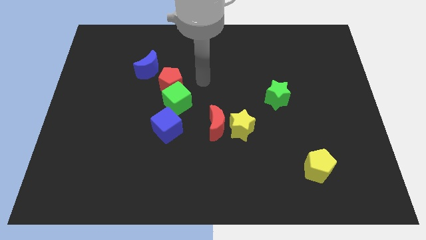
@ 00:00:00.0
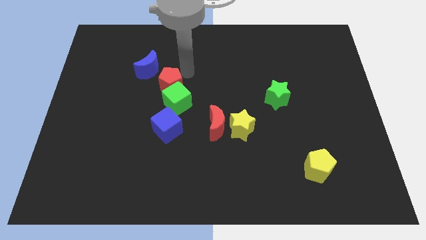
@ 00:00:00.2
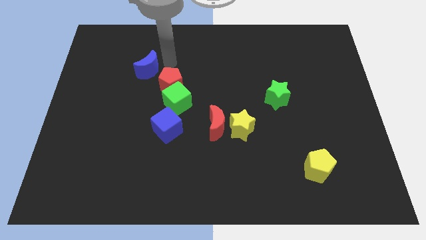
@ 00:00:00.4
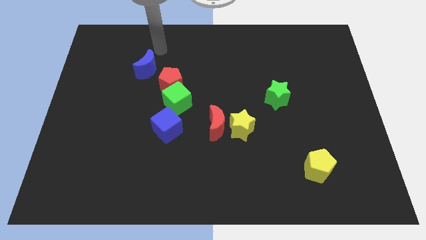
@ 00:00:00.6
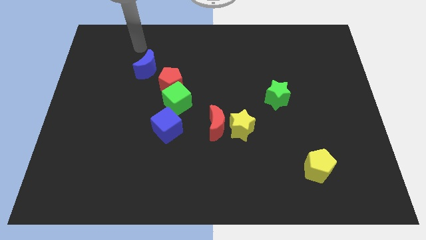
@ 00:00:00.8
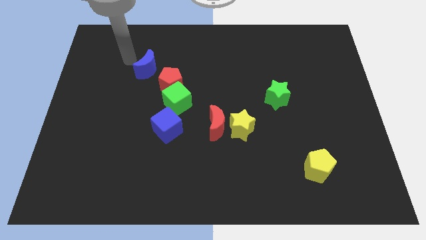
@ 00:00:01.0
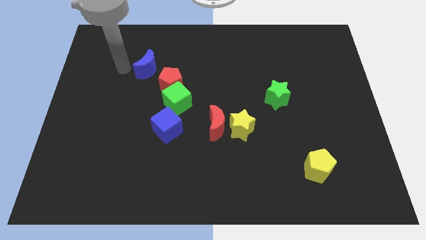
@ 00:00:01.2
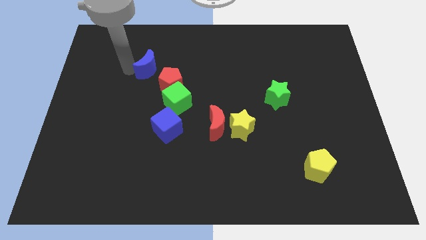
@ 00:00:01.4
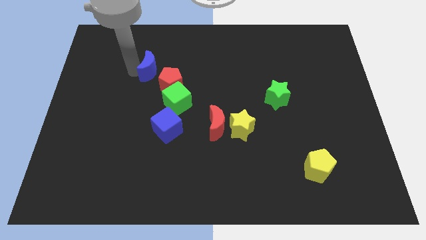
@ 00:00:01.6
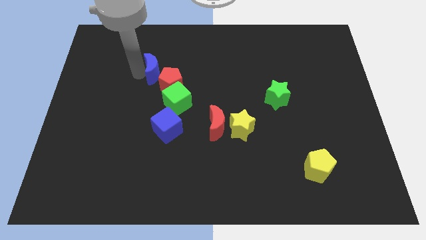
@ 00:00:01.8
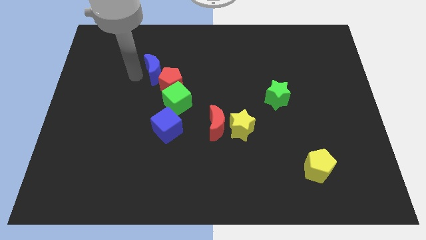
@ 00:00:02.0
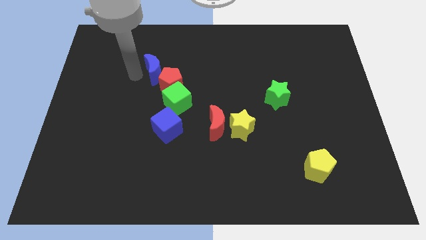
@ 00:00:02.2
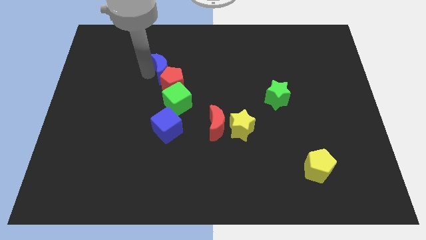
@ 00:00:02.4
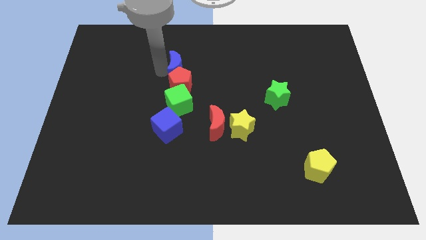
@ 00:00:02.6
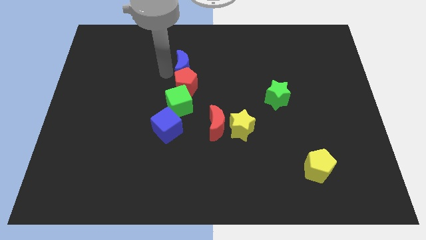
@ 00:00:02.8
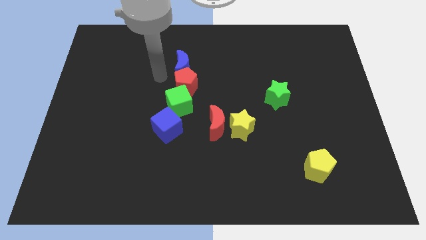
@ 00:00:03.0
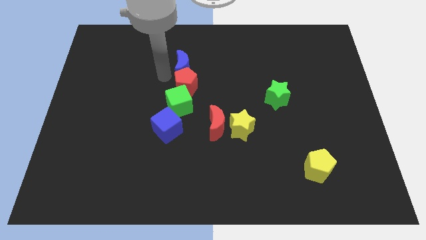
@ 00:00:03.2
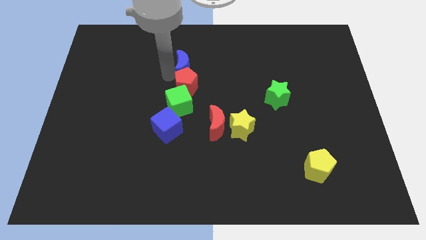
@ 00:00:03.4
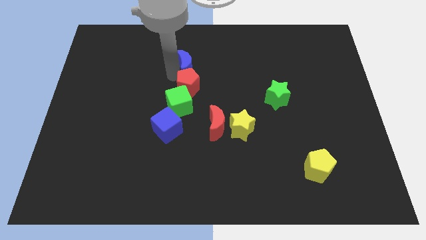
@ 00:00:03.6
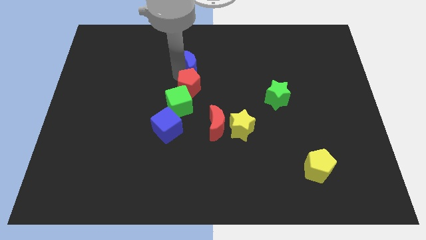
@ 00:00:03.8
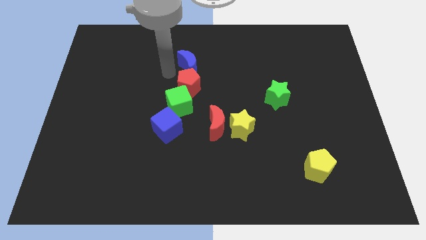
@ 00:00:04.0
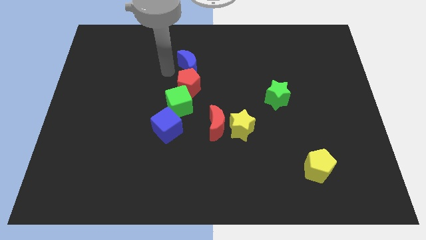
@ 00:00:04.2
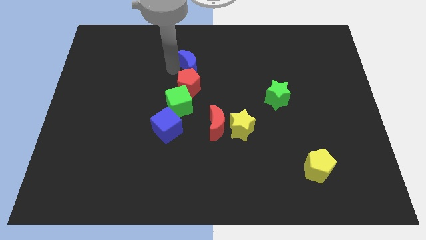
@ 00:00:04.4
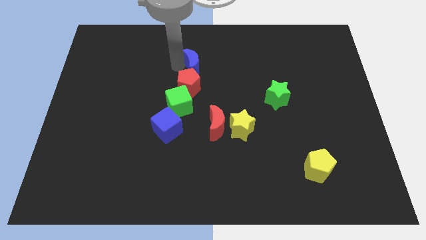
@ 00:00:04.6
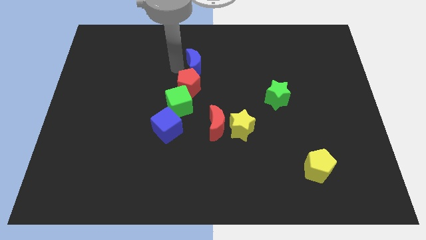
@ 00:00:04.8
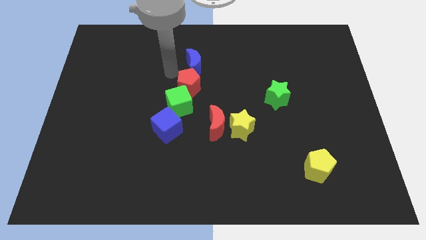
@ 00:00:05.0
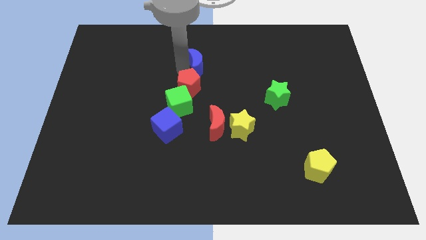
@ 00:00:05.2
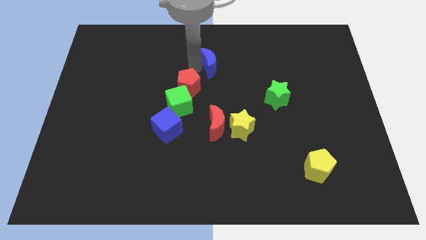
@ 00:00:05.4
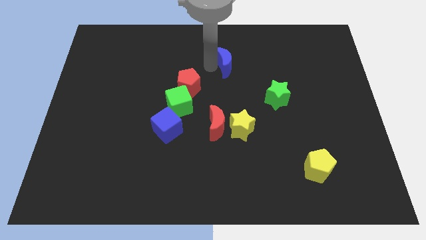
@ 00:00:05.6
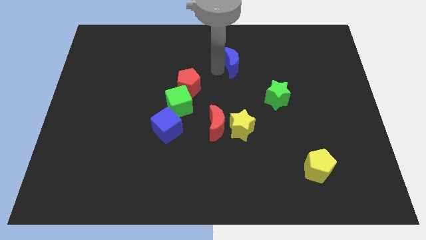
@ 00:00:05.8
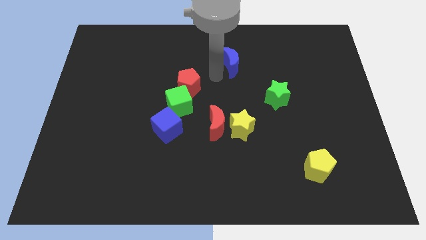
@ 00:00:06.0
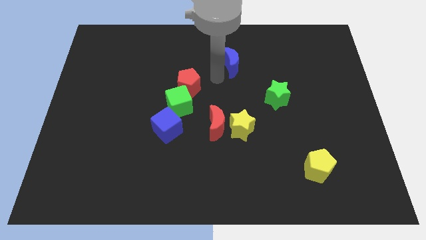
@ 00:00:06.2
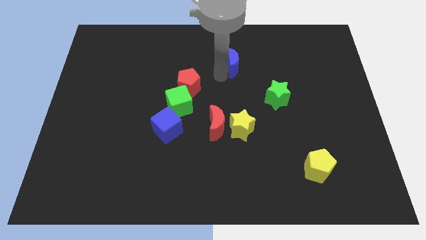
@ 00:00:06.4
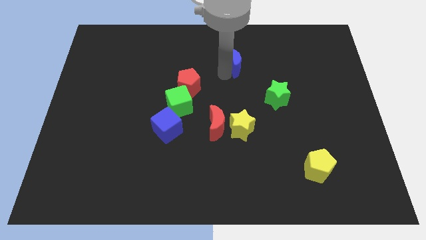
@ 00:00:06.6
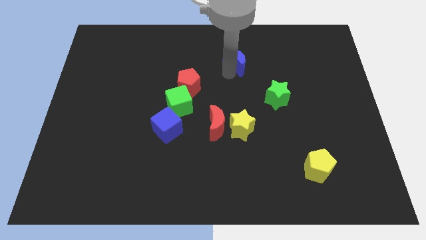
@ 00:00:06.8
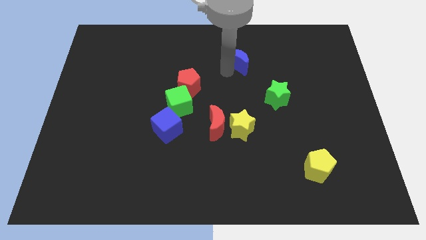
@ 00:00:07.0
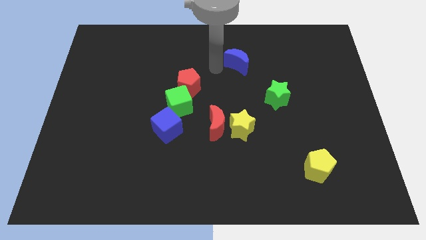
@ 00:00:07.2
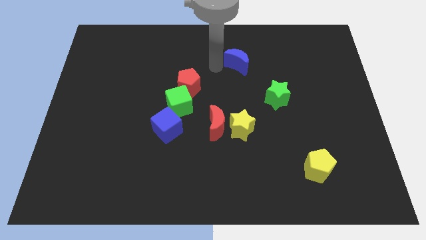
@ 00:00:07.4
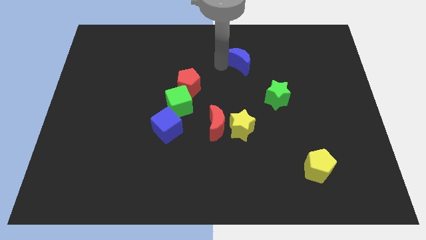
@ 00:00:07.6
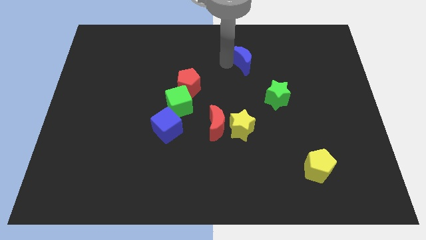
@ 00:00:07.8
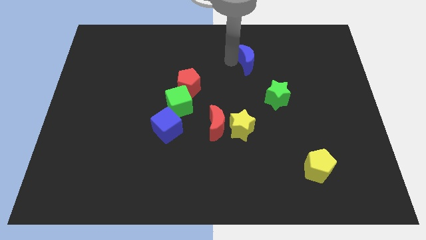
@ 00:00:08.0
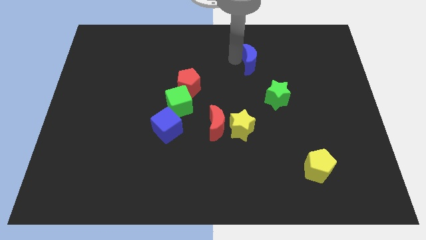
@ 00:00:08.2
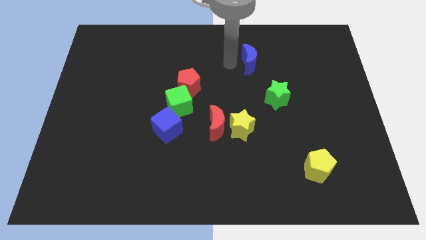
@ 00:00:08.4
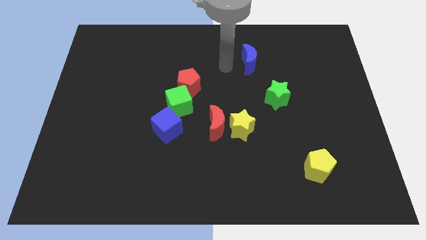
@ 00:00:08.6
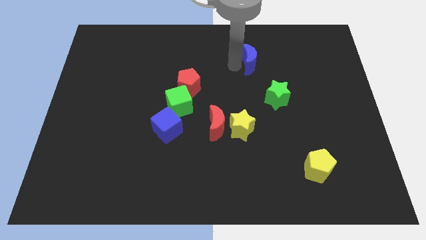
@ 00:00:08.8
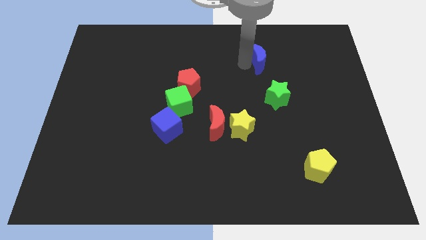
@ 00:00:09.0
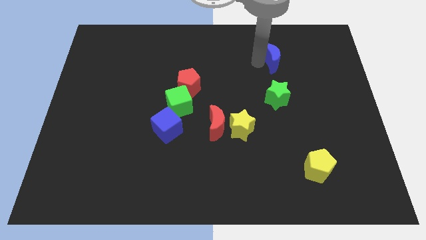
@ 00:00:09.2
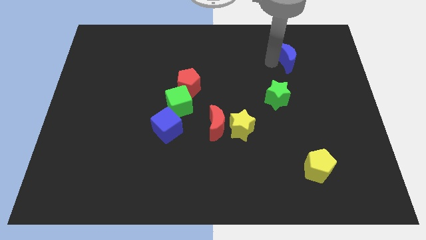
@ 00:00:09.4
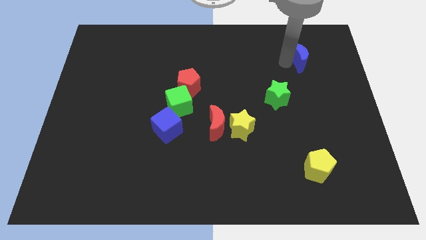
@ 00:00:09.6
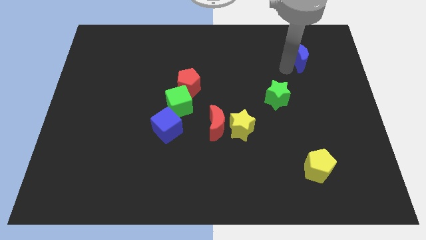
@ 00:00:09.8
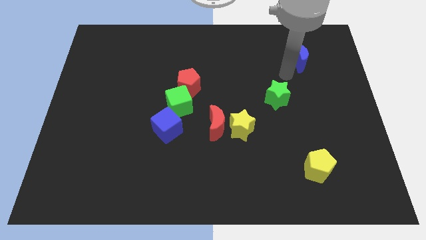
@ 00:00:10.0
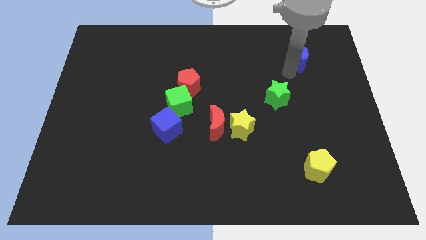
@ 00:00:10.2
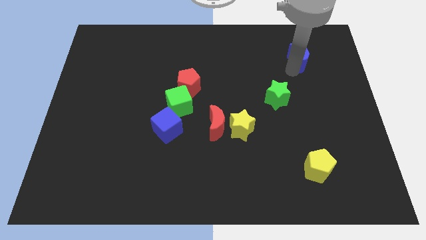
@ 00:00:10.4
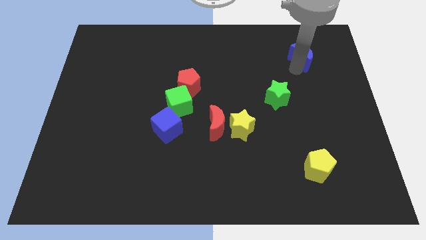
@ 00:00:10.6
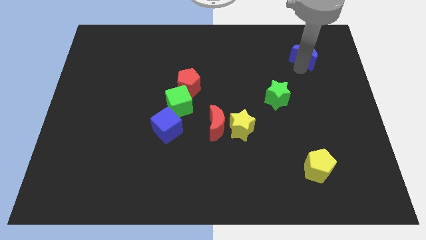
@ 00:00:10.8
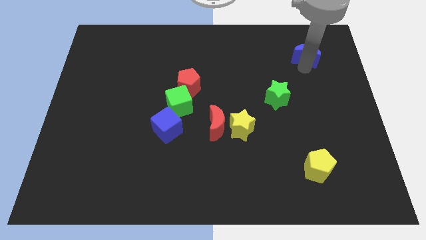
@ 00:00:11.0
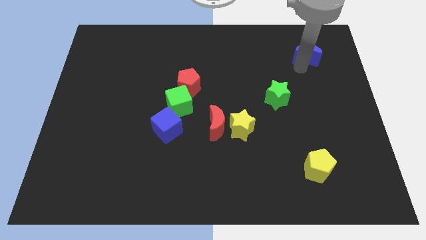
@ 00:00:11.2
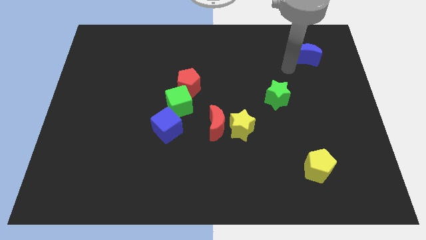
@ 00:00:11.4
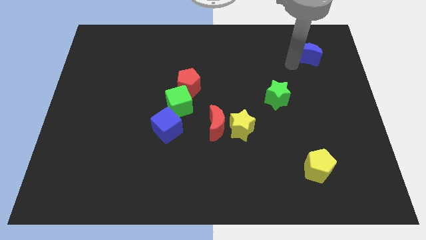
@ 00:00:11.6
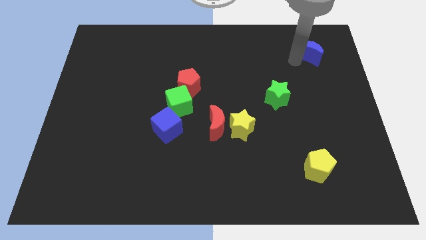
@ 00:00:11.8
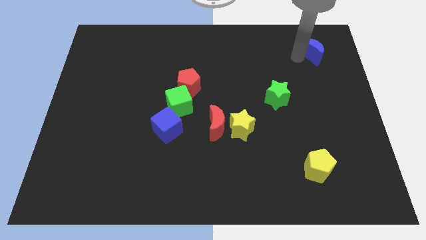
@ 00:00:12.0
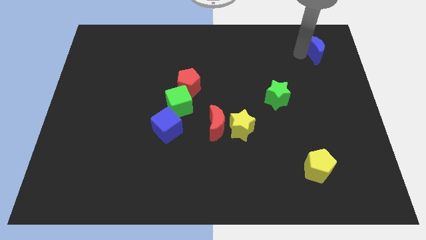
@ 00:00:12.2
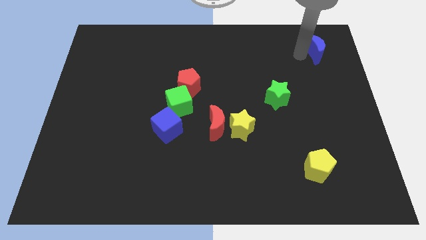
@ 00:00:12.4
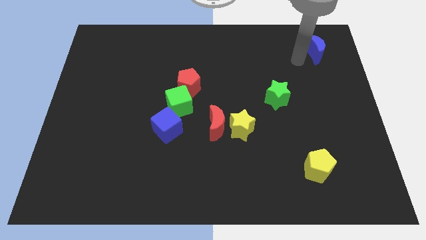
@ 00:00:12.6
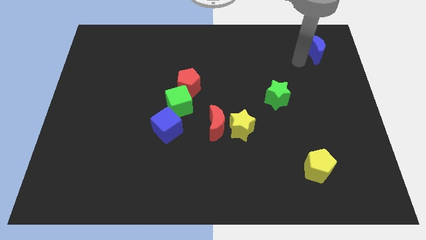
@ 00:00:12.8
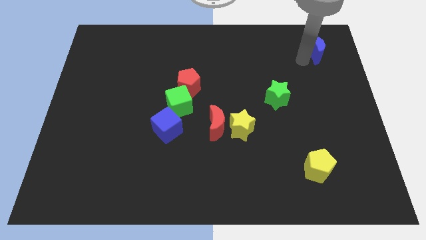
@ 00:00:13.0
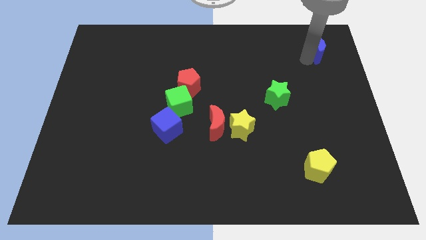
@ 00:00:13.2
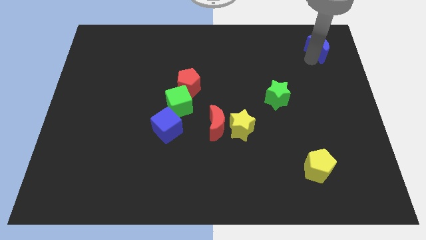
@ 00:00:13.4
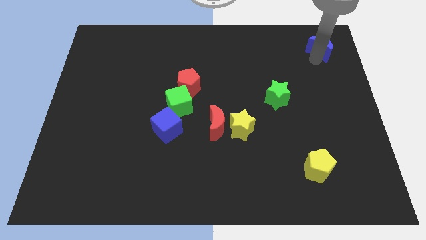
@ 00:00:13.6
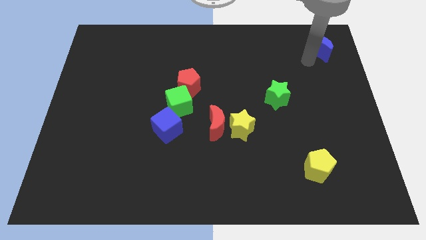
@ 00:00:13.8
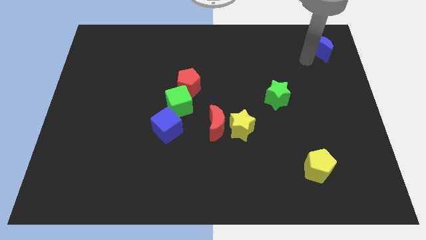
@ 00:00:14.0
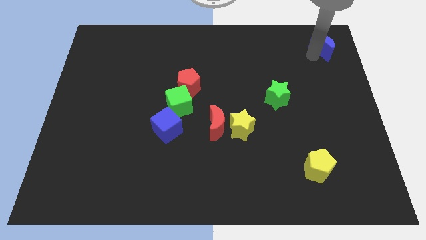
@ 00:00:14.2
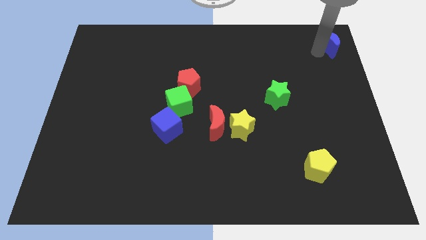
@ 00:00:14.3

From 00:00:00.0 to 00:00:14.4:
move the blue moon to the top right

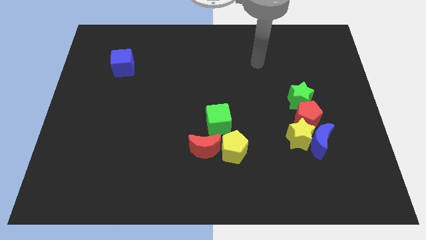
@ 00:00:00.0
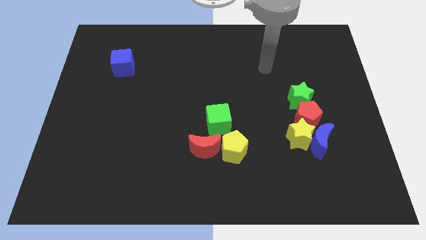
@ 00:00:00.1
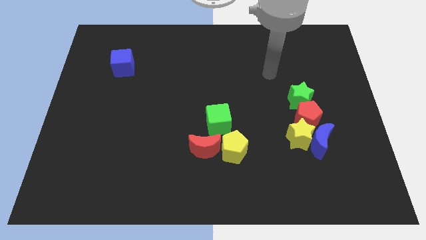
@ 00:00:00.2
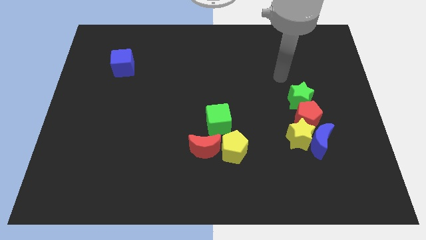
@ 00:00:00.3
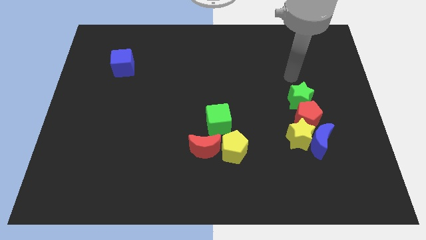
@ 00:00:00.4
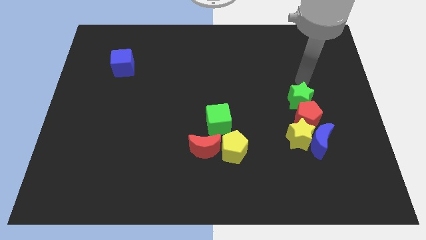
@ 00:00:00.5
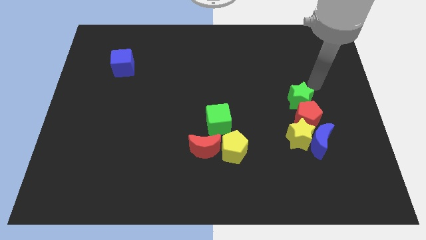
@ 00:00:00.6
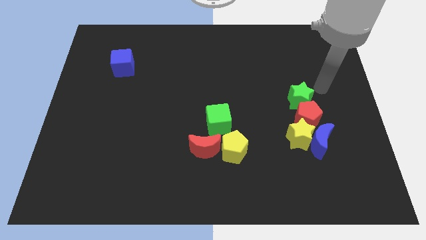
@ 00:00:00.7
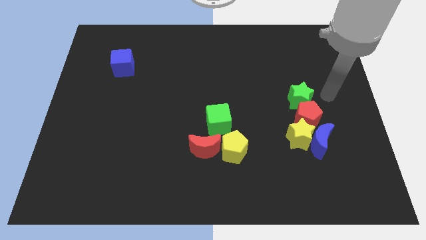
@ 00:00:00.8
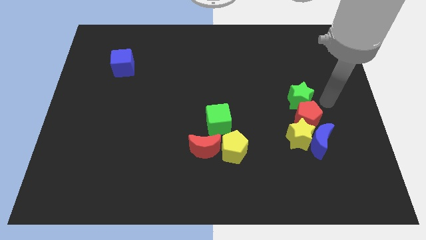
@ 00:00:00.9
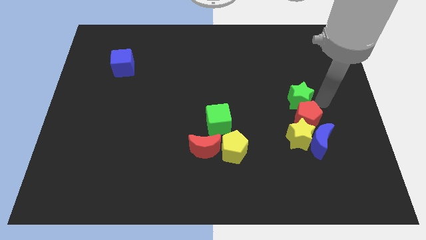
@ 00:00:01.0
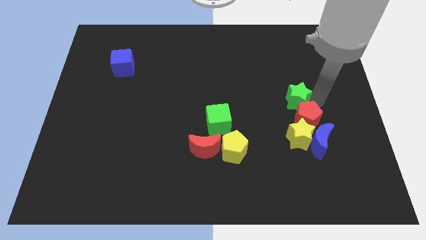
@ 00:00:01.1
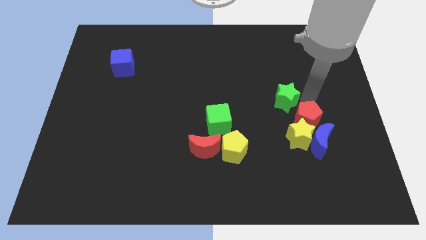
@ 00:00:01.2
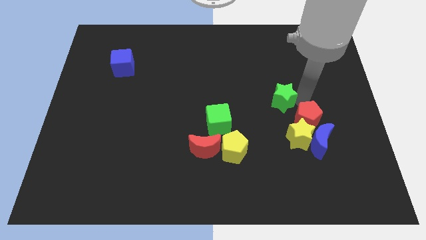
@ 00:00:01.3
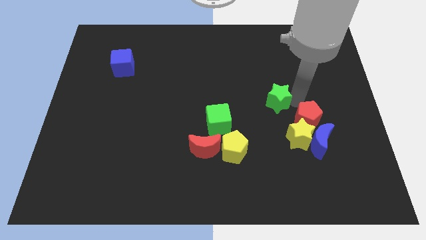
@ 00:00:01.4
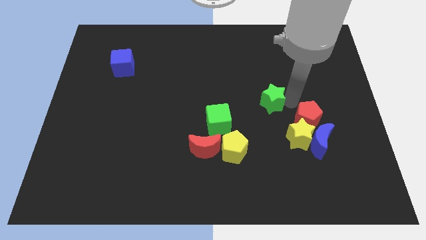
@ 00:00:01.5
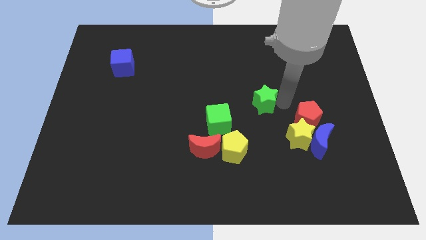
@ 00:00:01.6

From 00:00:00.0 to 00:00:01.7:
push the green star to the center
